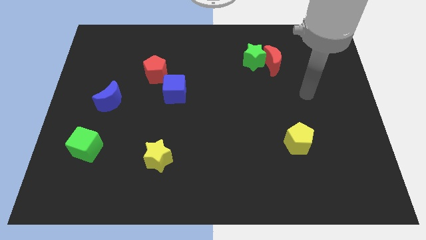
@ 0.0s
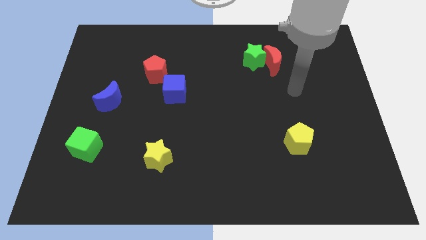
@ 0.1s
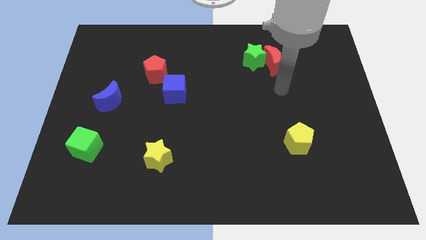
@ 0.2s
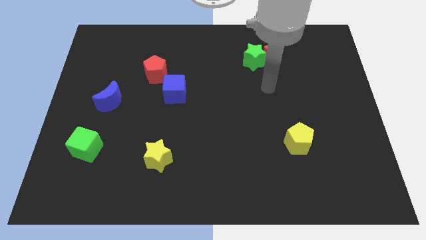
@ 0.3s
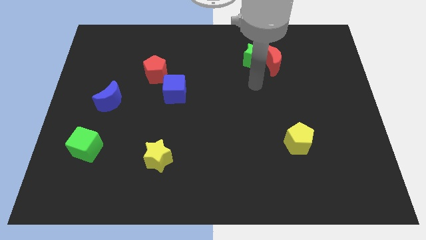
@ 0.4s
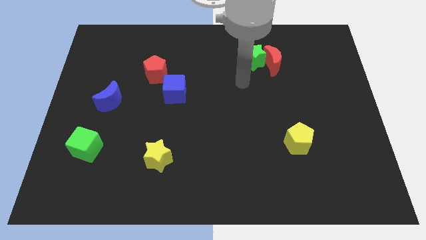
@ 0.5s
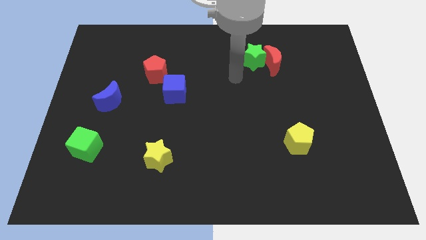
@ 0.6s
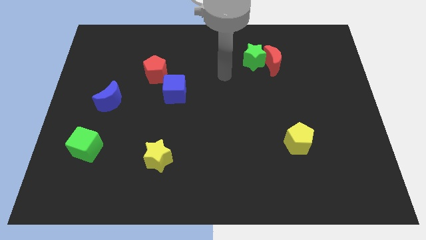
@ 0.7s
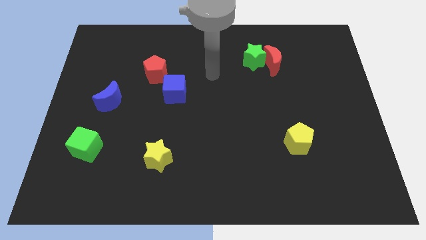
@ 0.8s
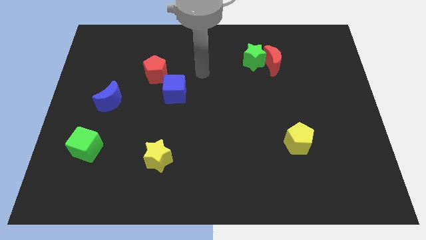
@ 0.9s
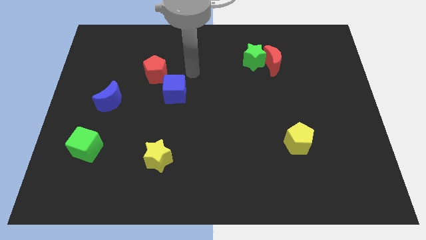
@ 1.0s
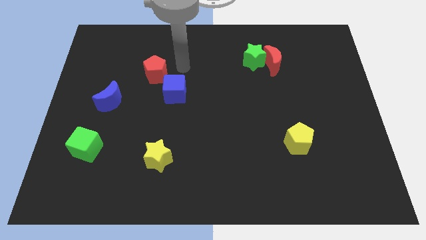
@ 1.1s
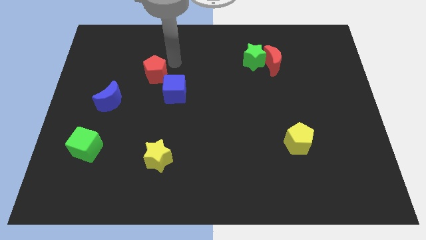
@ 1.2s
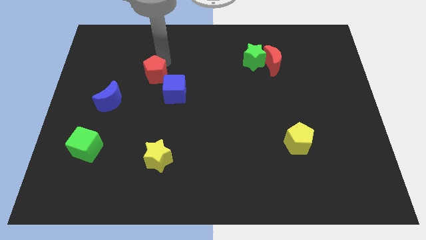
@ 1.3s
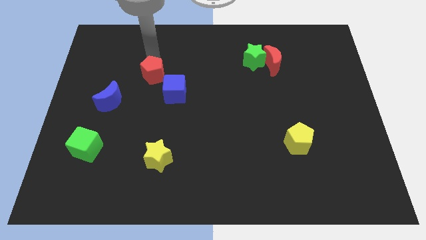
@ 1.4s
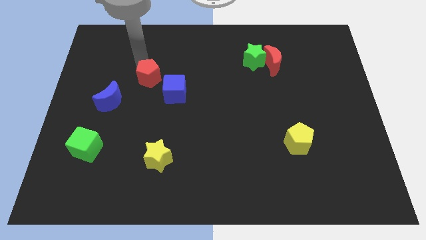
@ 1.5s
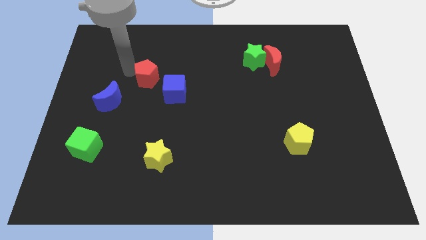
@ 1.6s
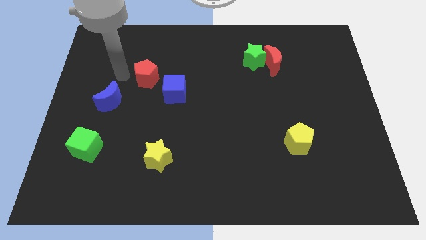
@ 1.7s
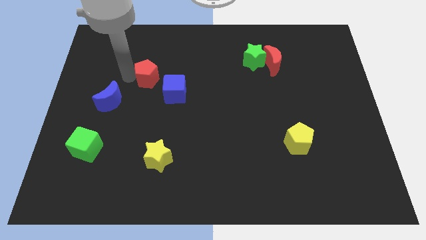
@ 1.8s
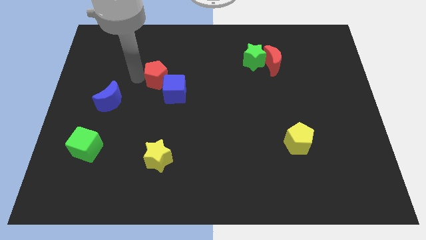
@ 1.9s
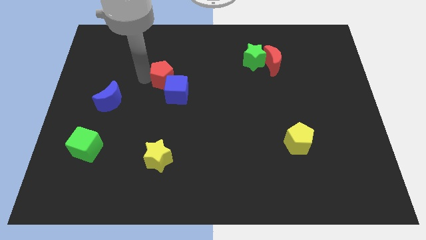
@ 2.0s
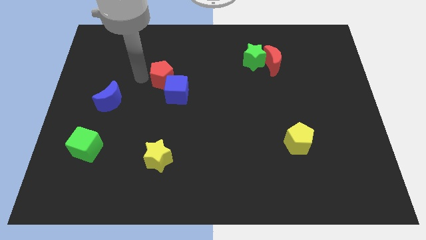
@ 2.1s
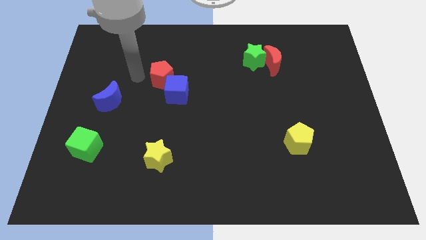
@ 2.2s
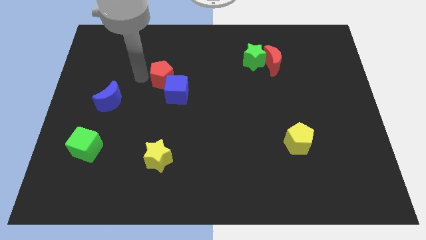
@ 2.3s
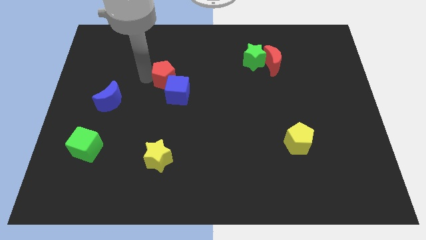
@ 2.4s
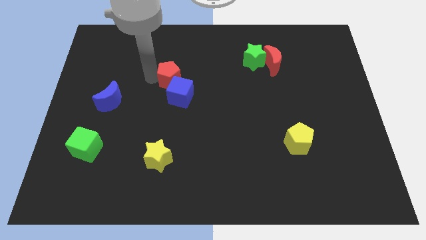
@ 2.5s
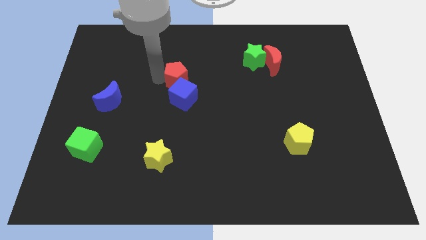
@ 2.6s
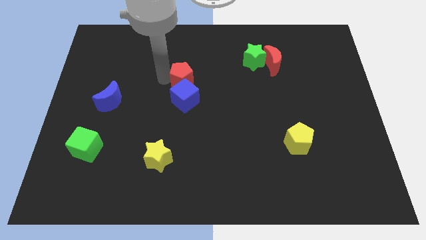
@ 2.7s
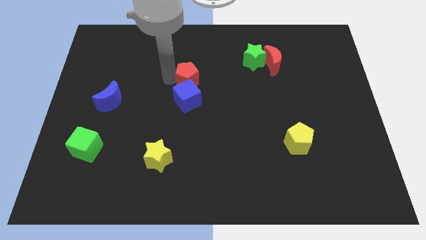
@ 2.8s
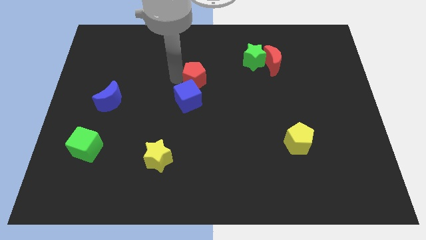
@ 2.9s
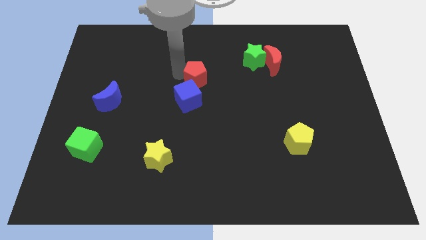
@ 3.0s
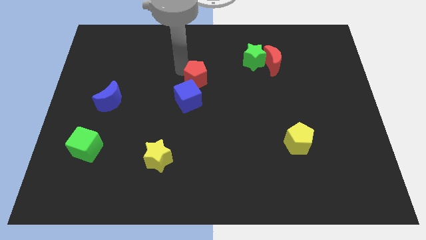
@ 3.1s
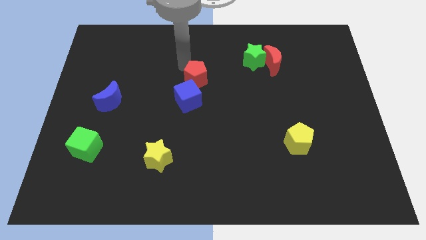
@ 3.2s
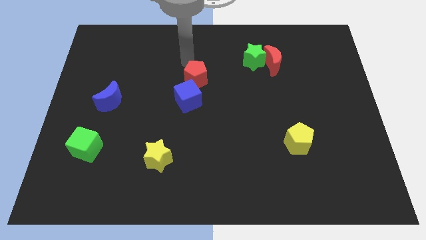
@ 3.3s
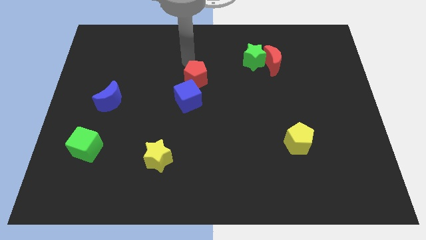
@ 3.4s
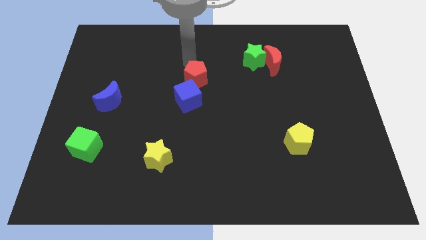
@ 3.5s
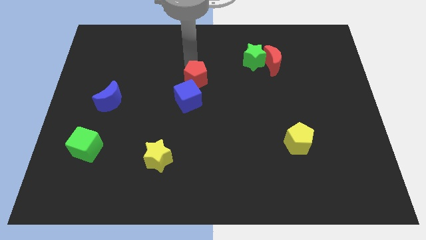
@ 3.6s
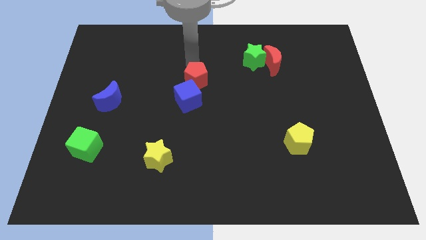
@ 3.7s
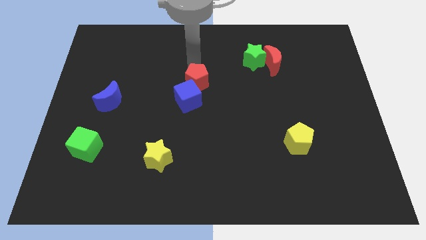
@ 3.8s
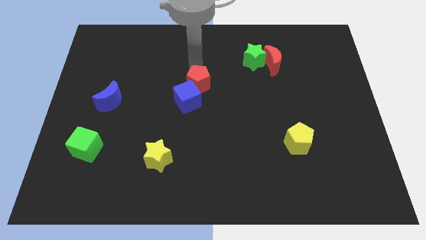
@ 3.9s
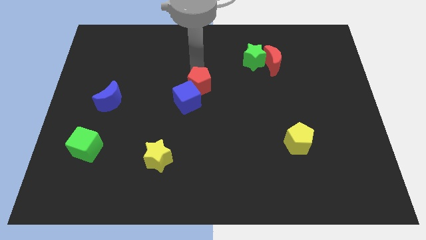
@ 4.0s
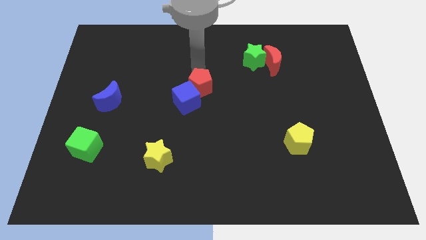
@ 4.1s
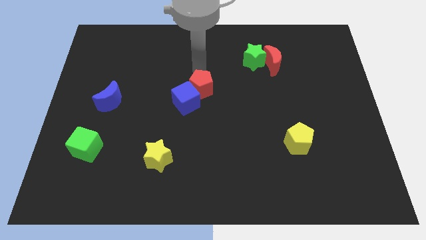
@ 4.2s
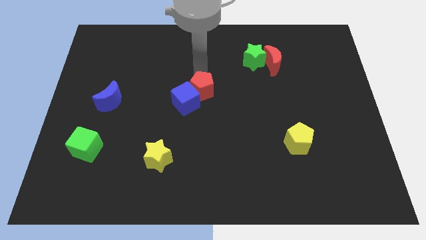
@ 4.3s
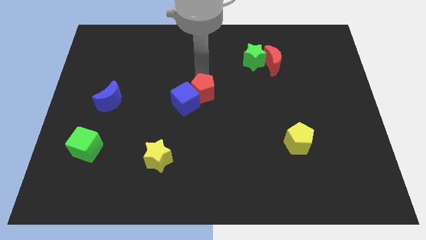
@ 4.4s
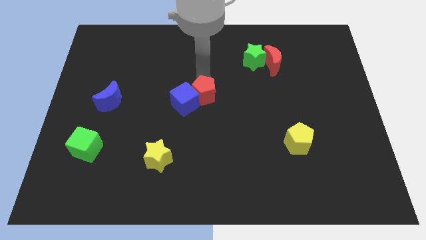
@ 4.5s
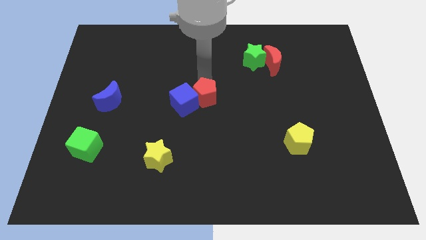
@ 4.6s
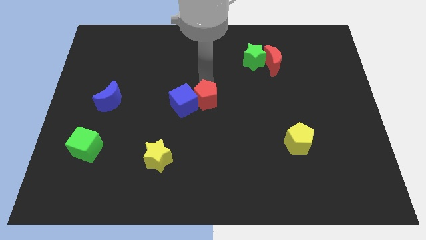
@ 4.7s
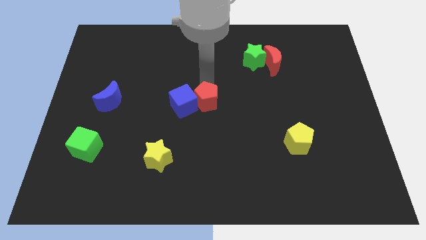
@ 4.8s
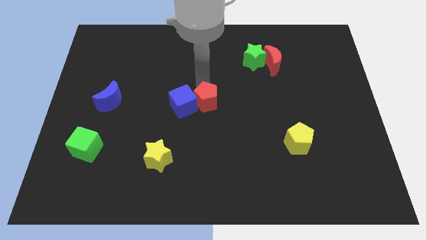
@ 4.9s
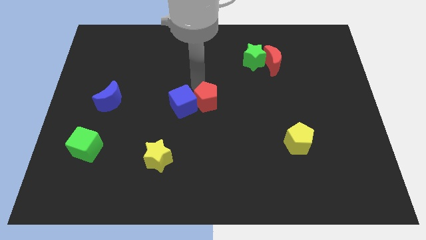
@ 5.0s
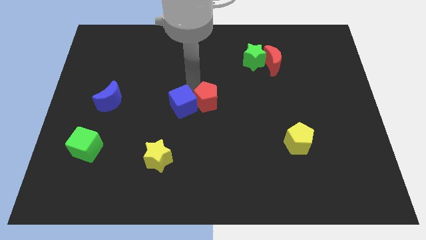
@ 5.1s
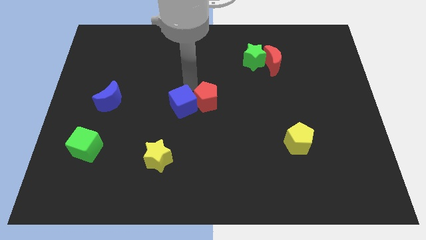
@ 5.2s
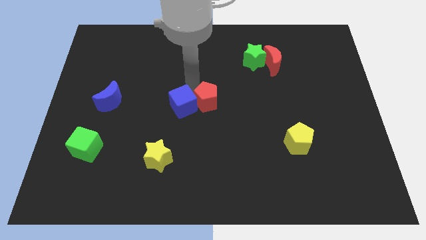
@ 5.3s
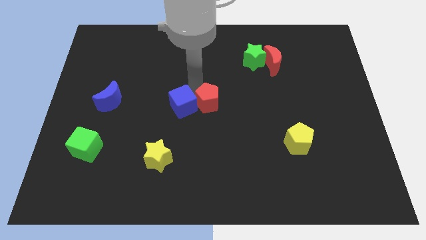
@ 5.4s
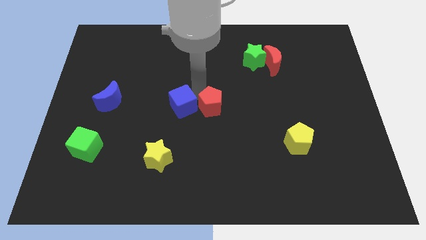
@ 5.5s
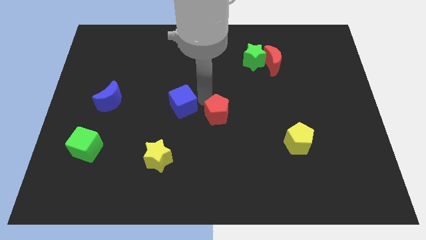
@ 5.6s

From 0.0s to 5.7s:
move the red pentagon down and right

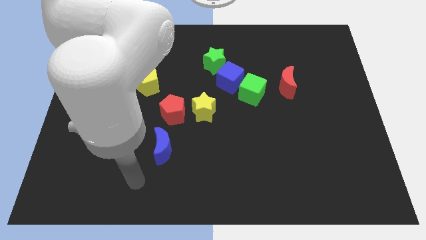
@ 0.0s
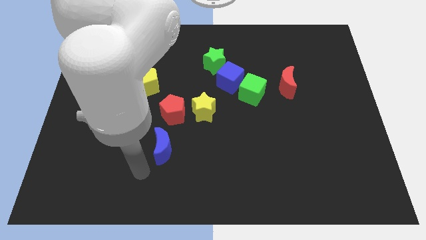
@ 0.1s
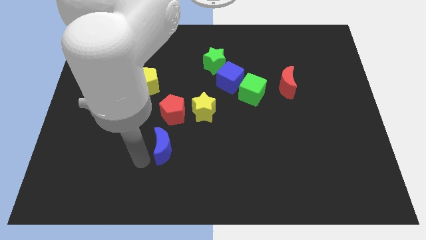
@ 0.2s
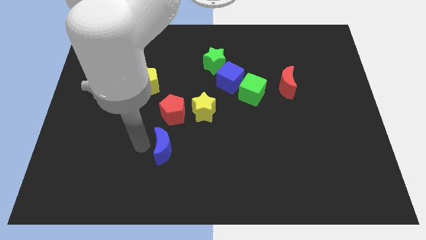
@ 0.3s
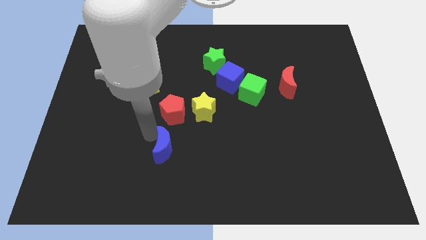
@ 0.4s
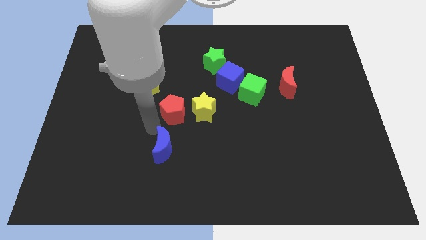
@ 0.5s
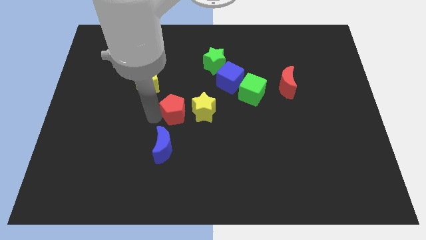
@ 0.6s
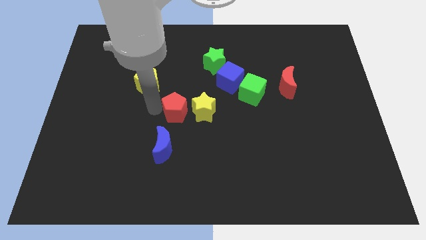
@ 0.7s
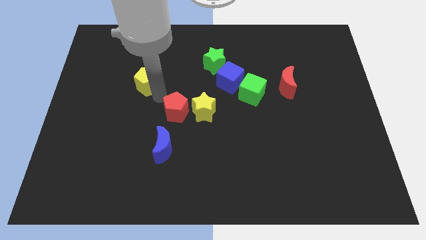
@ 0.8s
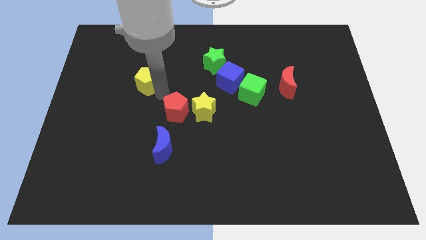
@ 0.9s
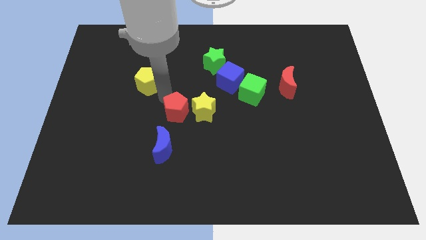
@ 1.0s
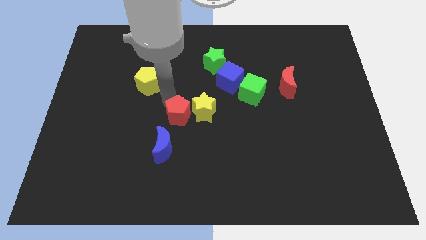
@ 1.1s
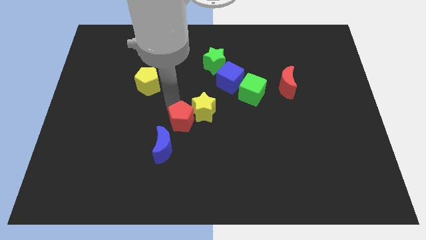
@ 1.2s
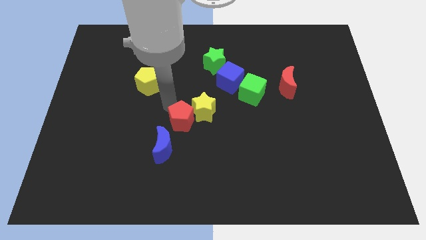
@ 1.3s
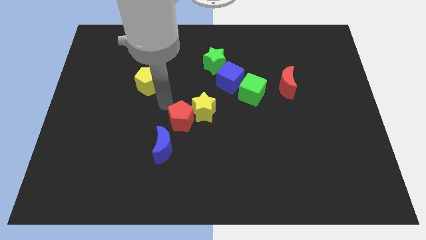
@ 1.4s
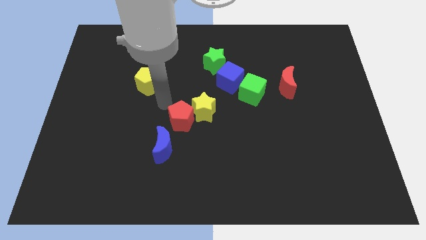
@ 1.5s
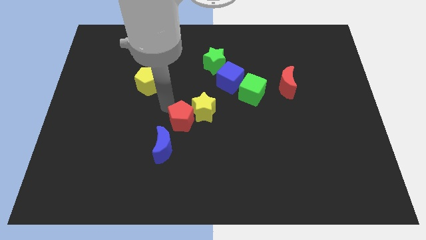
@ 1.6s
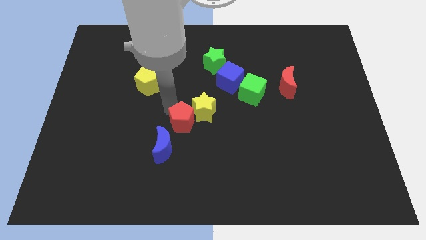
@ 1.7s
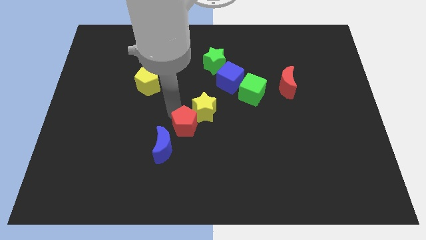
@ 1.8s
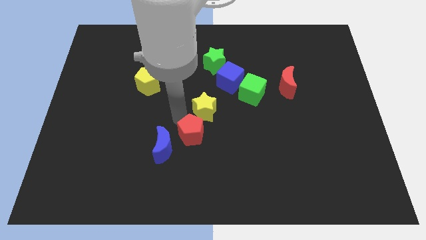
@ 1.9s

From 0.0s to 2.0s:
slightly slide the red pentagon downwards and to the right diagonally

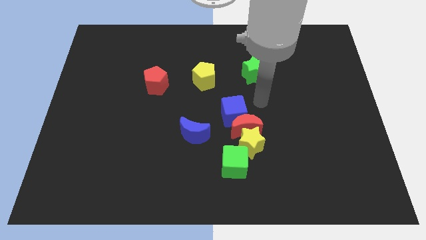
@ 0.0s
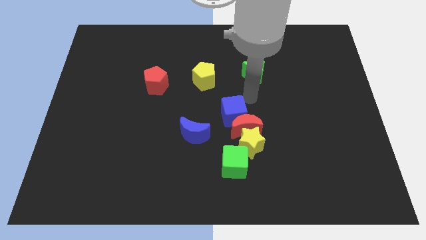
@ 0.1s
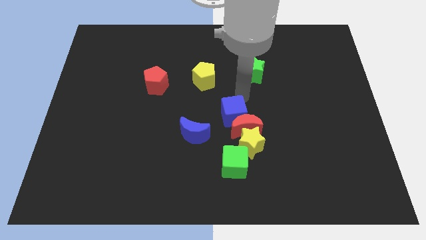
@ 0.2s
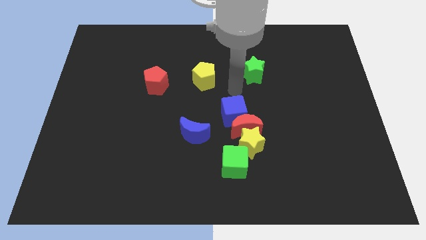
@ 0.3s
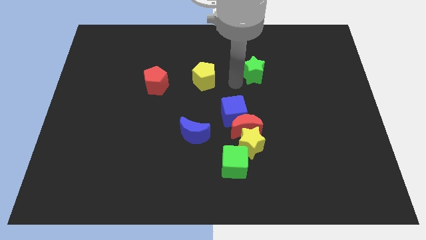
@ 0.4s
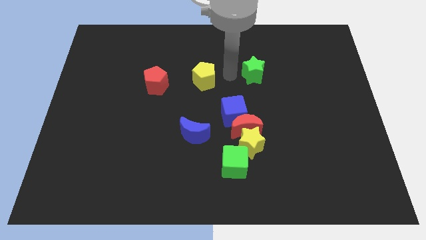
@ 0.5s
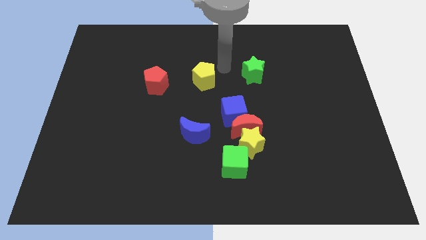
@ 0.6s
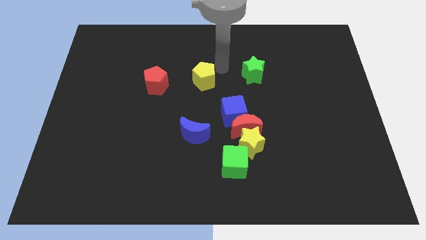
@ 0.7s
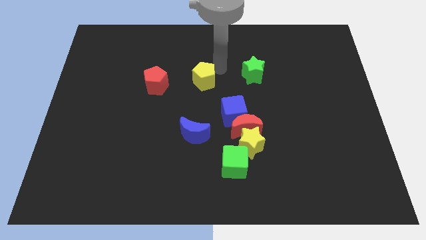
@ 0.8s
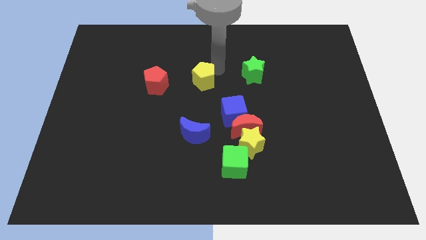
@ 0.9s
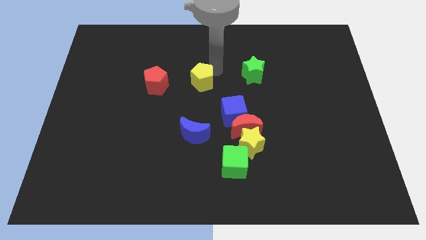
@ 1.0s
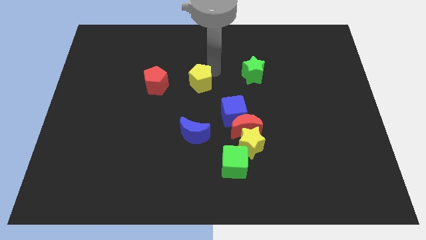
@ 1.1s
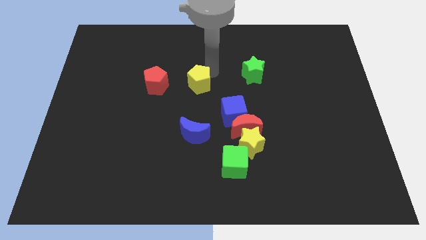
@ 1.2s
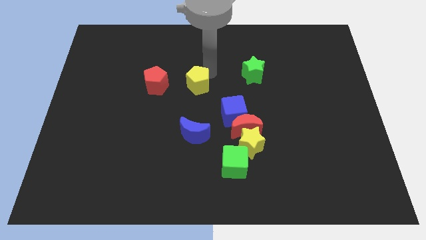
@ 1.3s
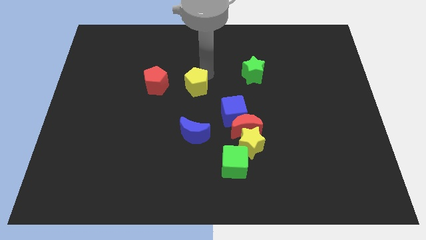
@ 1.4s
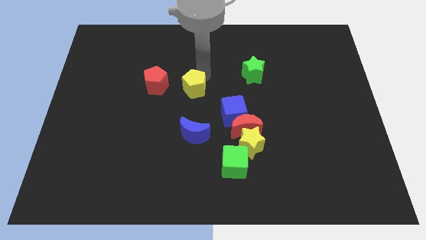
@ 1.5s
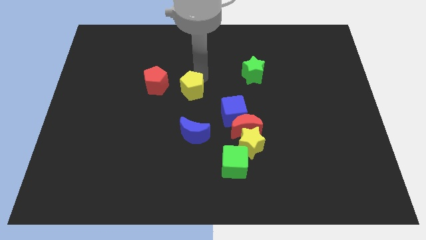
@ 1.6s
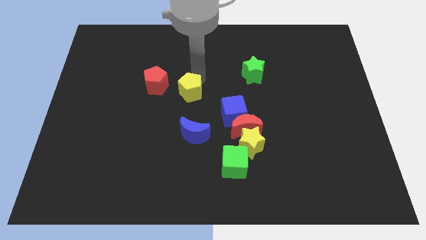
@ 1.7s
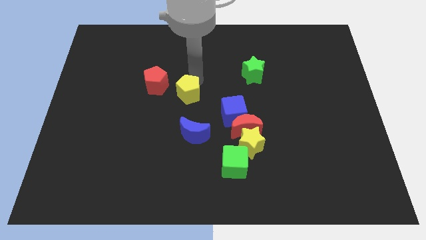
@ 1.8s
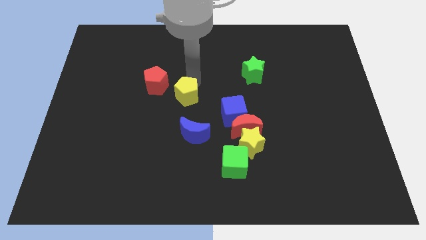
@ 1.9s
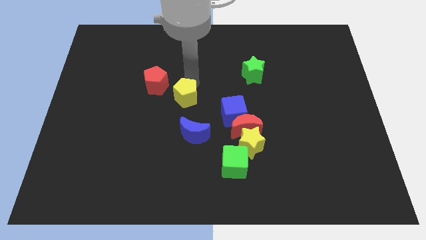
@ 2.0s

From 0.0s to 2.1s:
slightly push the yellow pentagon downwards and then left
